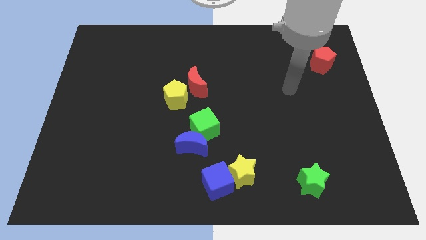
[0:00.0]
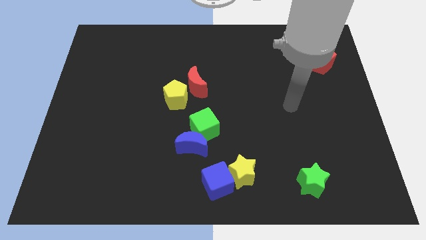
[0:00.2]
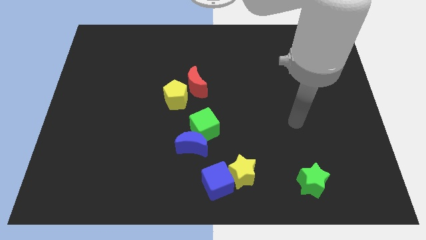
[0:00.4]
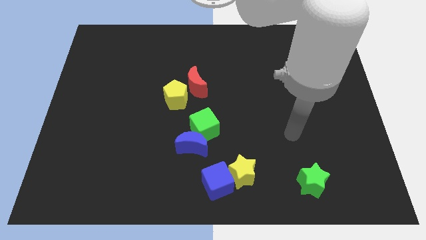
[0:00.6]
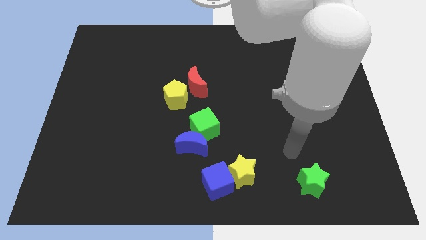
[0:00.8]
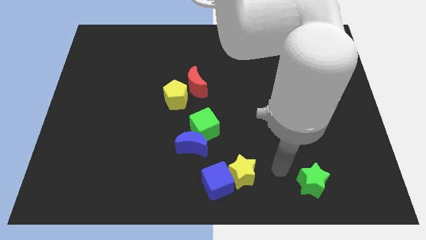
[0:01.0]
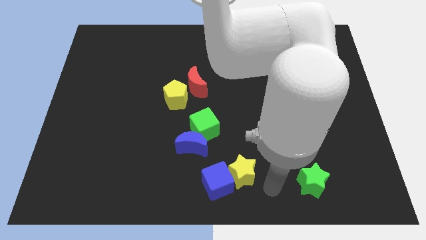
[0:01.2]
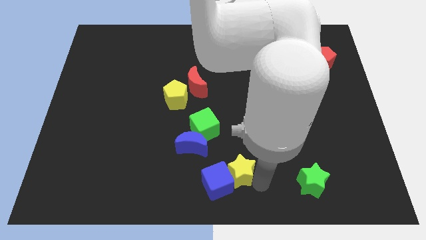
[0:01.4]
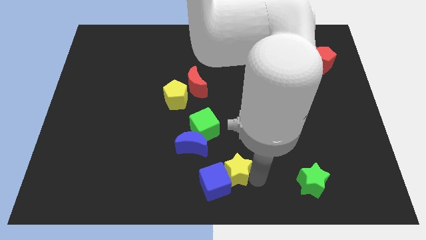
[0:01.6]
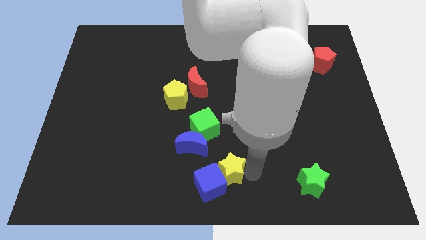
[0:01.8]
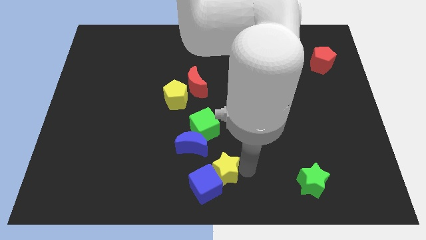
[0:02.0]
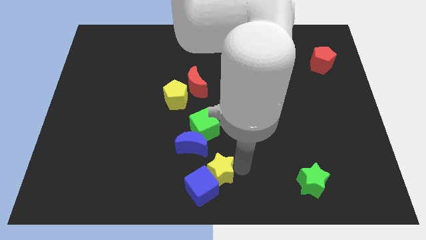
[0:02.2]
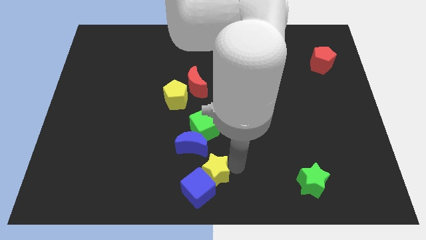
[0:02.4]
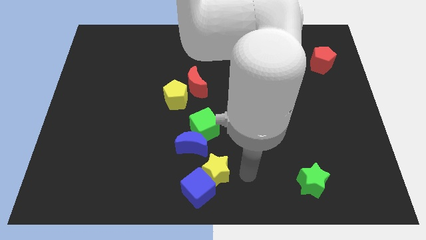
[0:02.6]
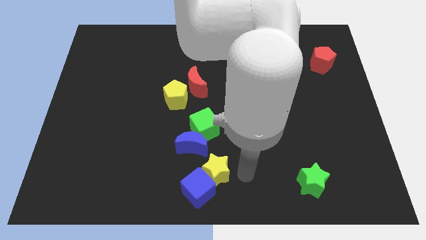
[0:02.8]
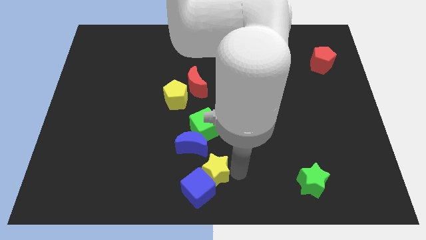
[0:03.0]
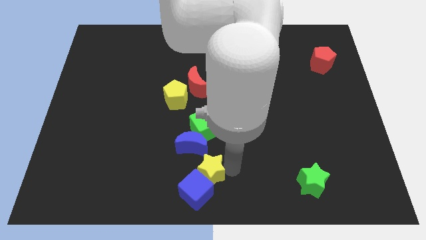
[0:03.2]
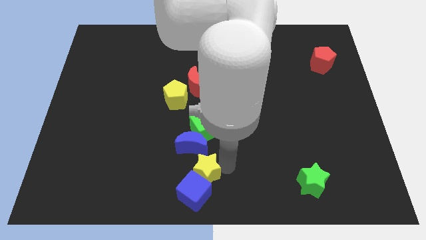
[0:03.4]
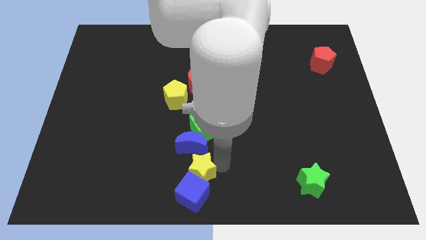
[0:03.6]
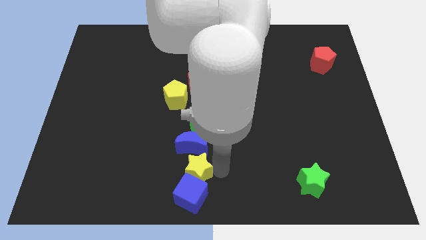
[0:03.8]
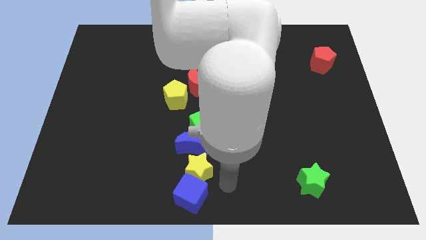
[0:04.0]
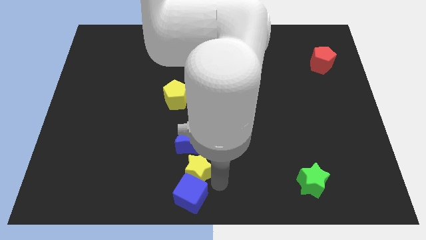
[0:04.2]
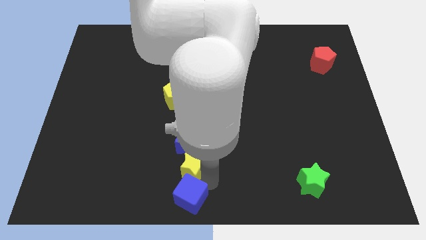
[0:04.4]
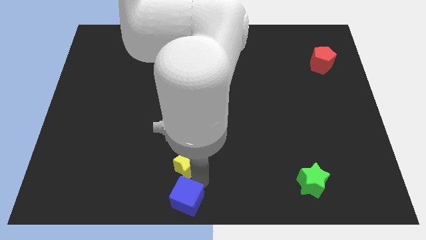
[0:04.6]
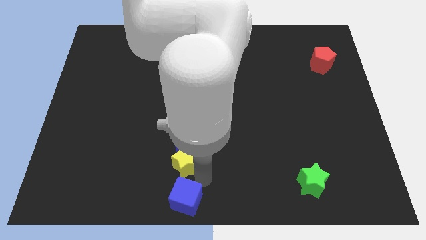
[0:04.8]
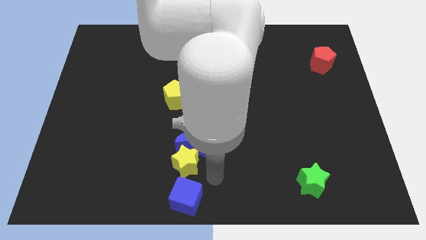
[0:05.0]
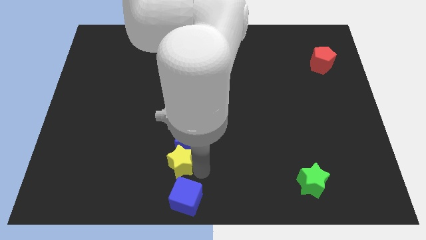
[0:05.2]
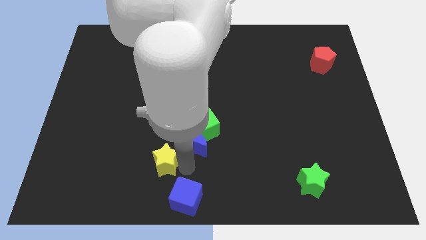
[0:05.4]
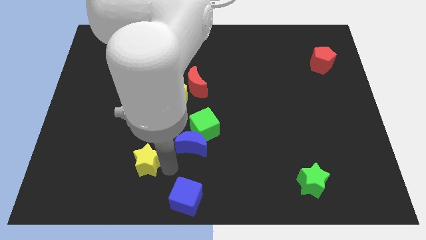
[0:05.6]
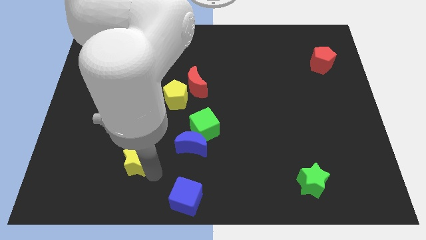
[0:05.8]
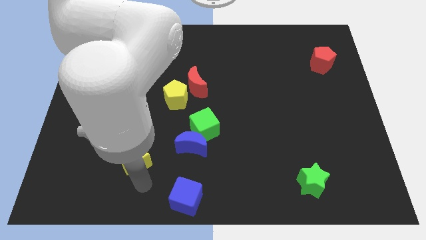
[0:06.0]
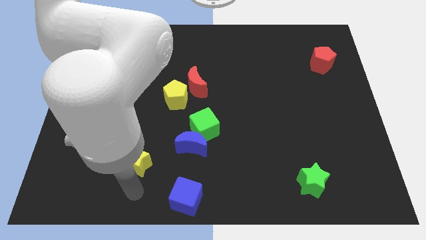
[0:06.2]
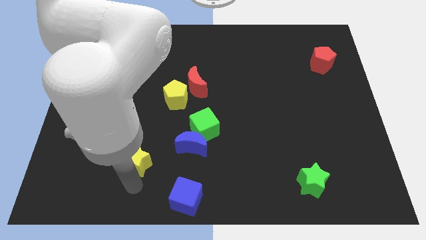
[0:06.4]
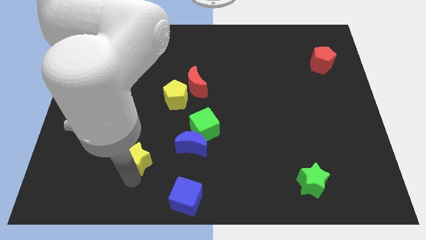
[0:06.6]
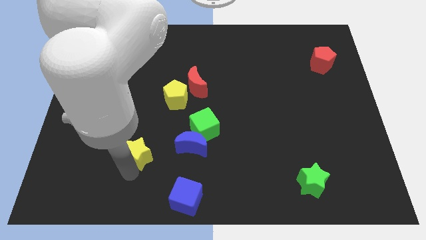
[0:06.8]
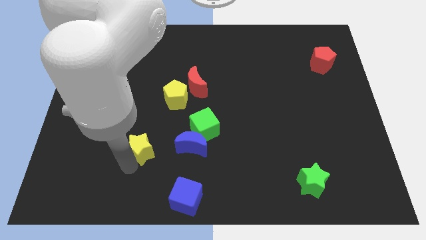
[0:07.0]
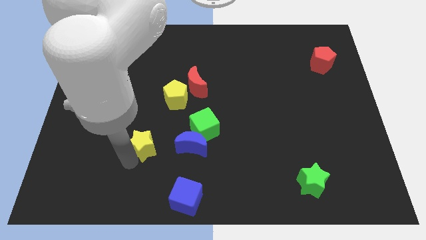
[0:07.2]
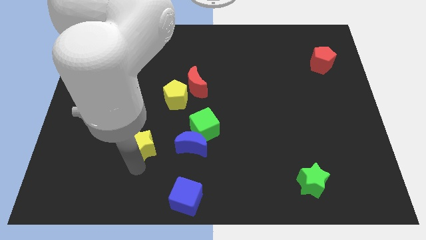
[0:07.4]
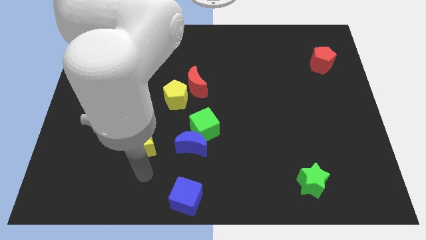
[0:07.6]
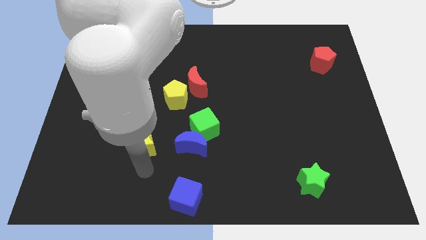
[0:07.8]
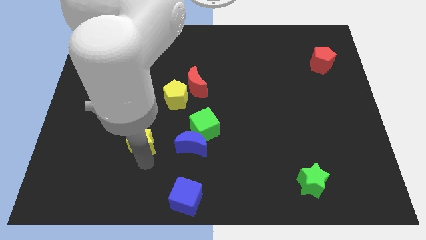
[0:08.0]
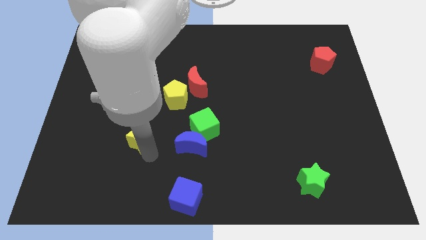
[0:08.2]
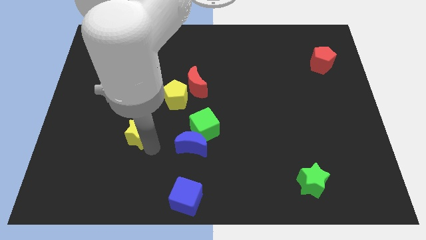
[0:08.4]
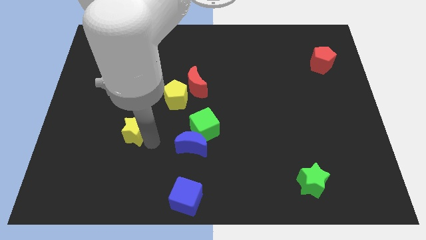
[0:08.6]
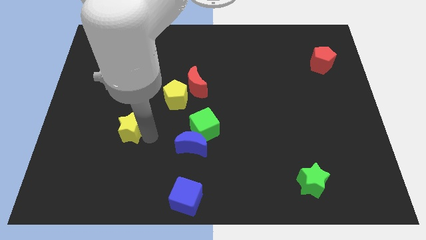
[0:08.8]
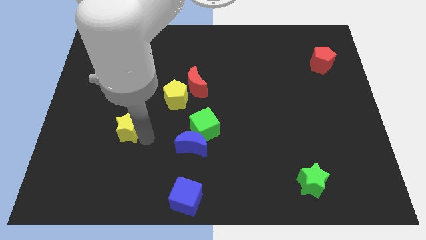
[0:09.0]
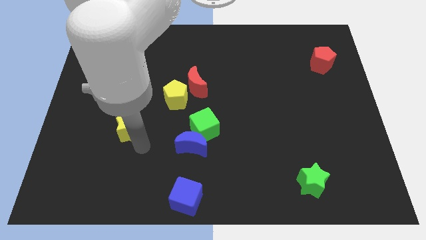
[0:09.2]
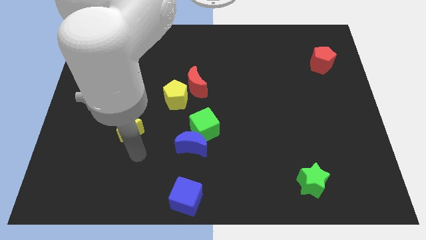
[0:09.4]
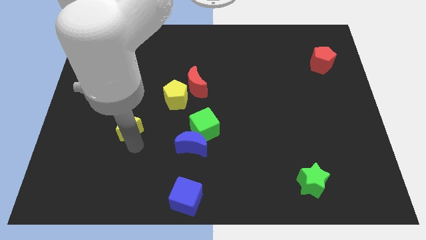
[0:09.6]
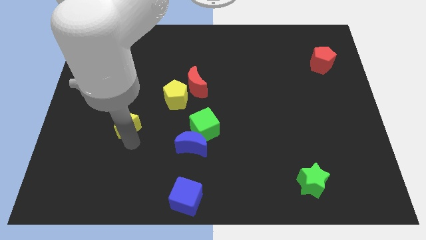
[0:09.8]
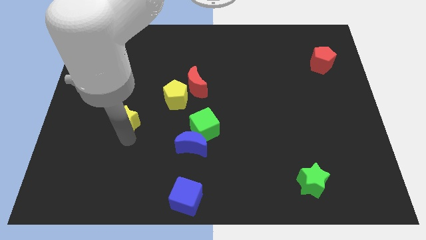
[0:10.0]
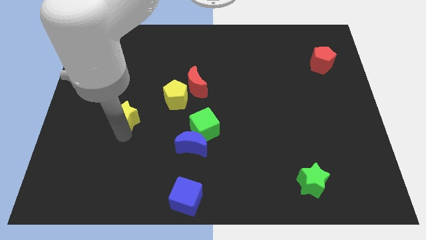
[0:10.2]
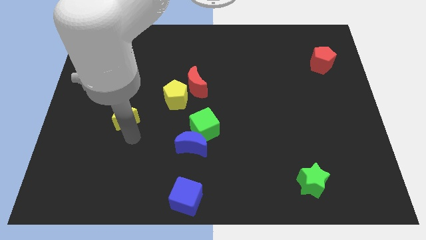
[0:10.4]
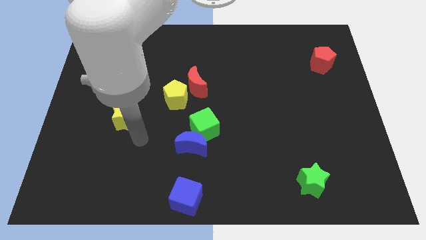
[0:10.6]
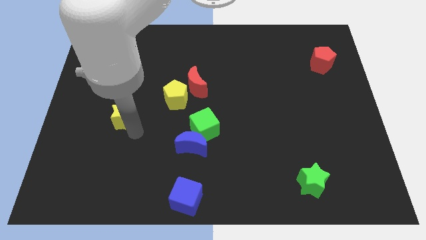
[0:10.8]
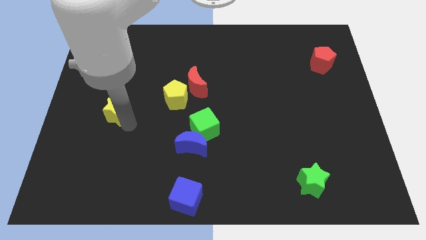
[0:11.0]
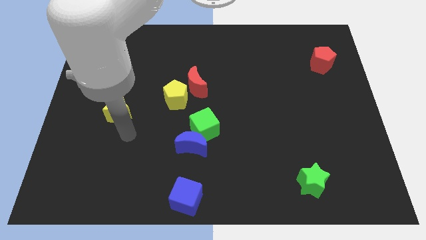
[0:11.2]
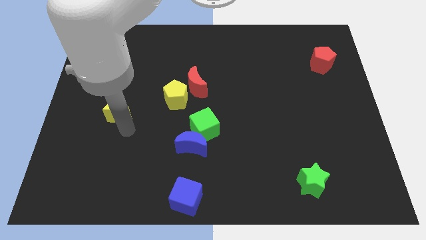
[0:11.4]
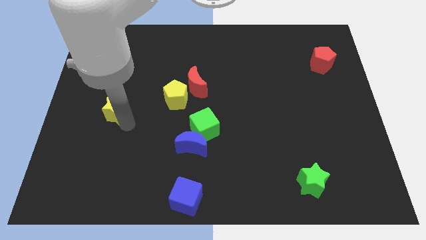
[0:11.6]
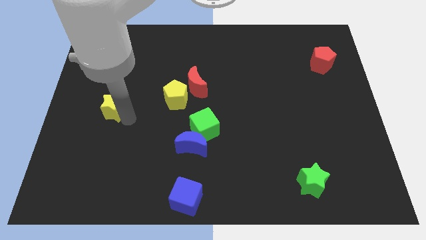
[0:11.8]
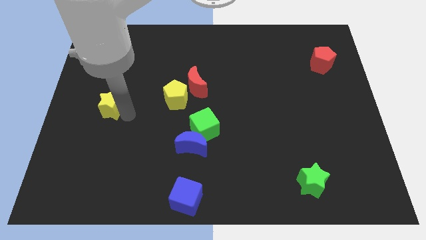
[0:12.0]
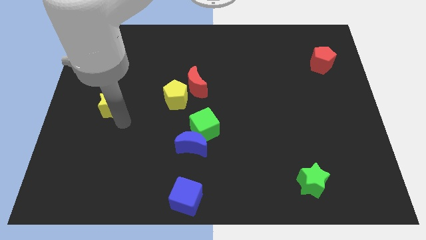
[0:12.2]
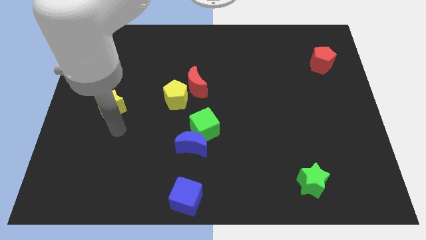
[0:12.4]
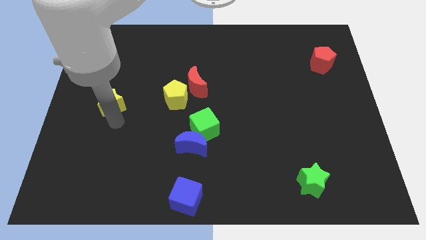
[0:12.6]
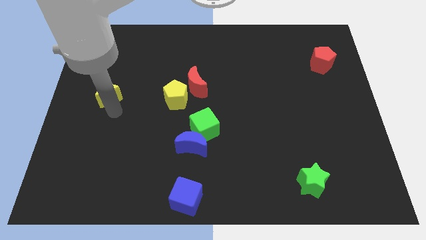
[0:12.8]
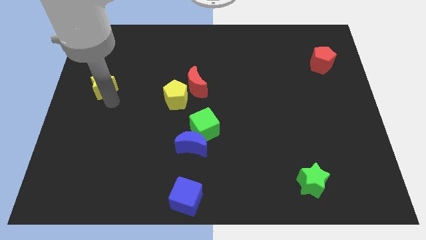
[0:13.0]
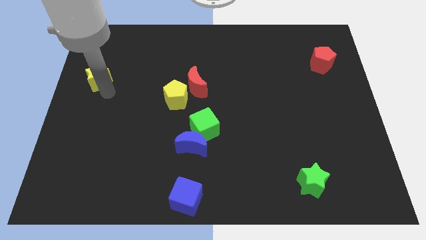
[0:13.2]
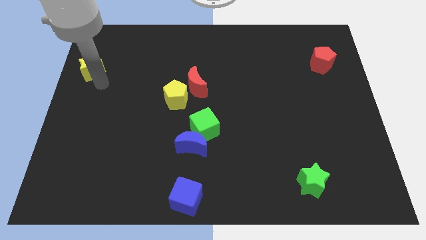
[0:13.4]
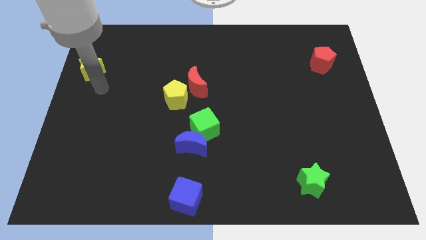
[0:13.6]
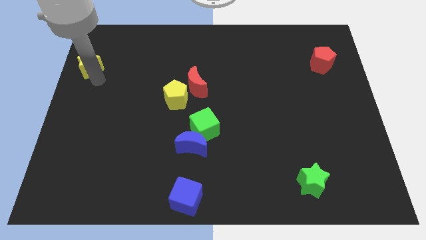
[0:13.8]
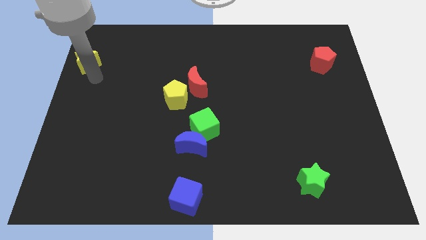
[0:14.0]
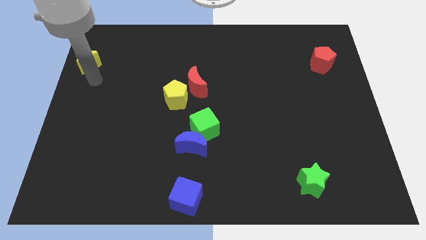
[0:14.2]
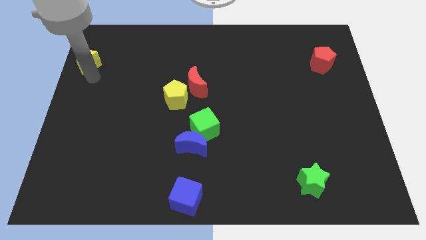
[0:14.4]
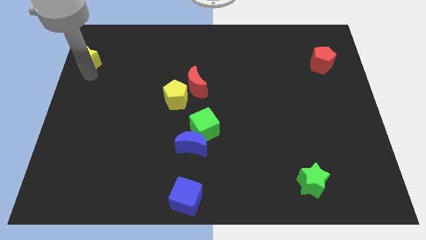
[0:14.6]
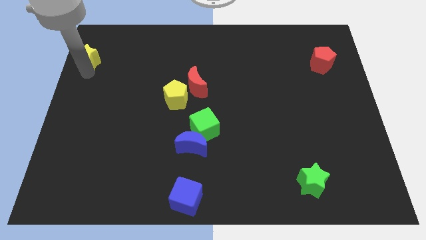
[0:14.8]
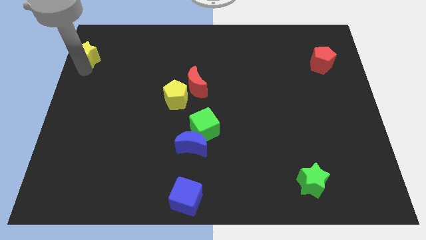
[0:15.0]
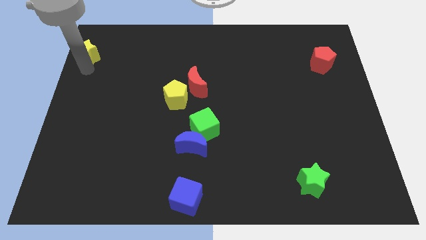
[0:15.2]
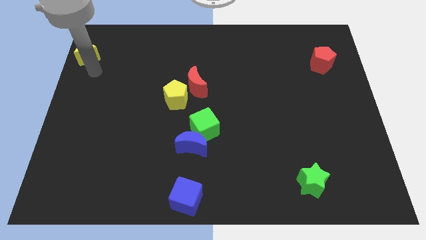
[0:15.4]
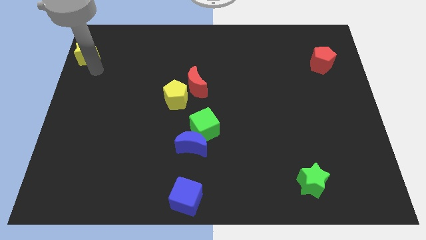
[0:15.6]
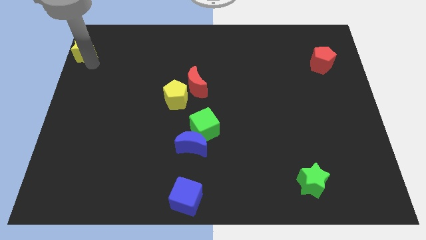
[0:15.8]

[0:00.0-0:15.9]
move the yellow star to the upper left corner
